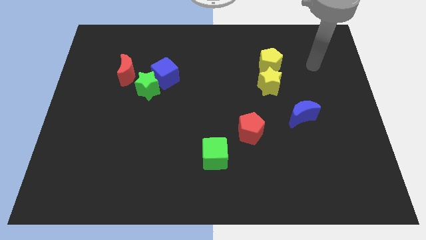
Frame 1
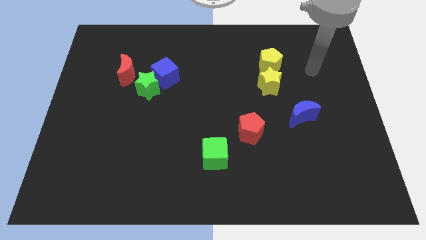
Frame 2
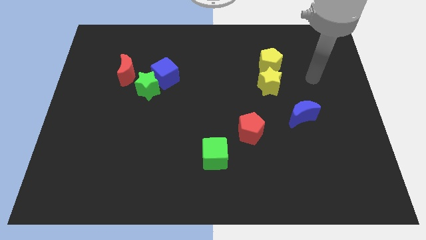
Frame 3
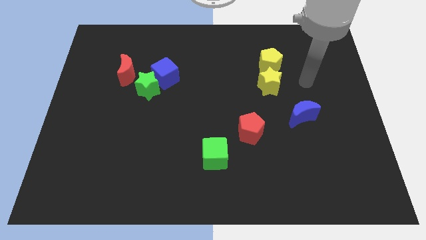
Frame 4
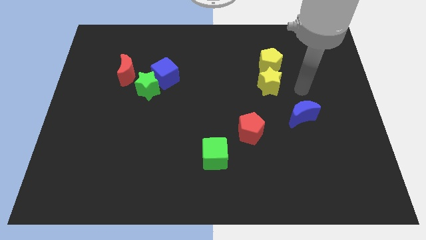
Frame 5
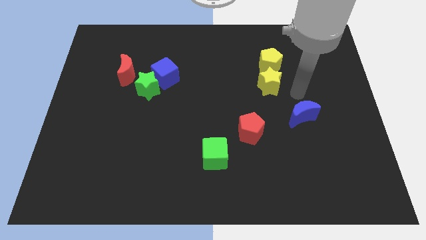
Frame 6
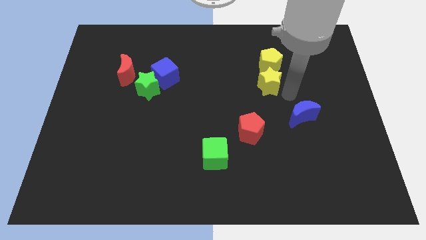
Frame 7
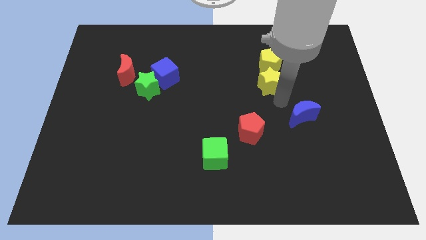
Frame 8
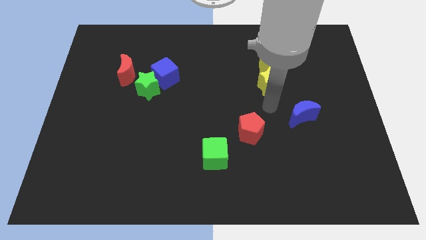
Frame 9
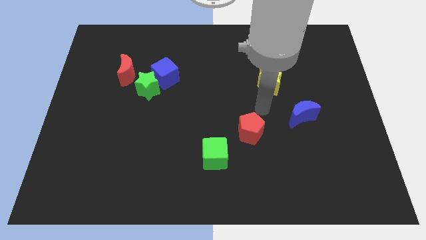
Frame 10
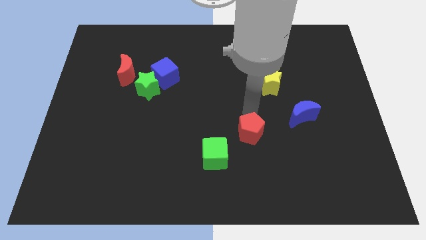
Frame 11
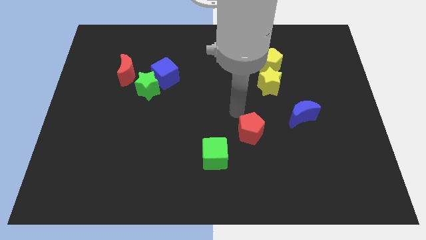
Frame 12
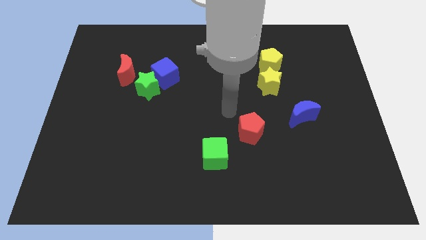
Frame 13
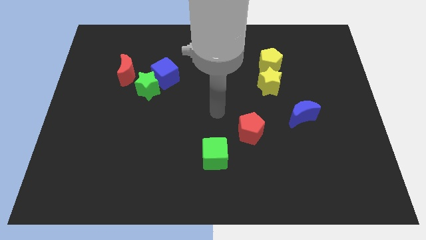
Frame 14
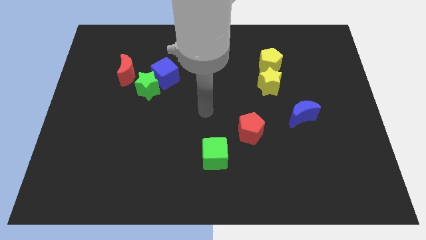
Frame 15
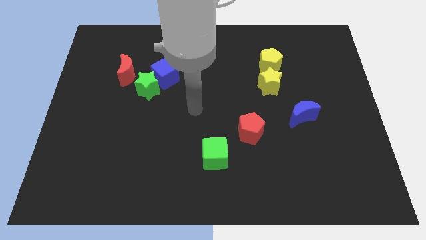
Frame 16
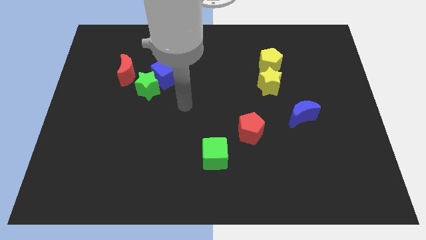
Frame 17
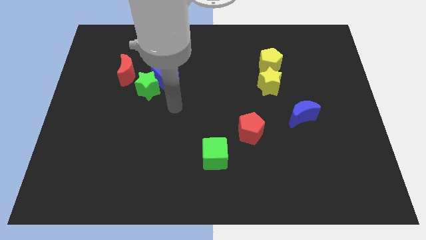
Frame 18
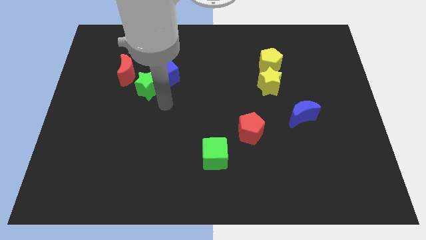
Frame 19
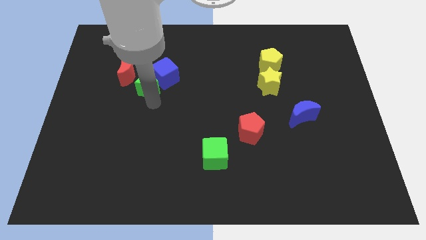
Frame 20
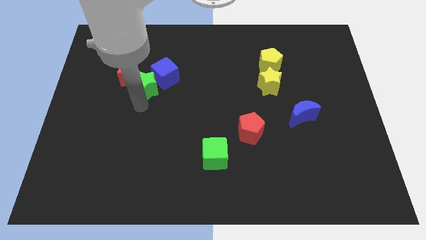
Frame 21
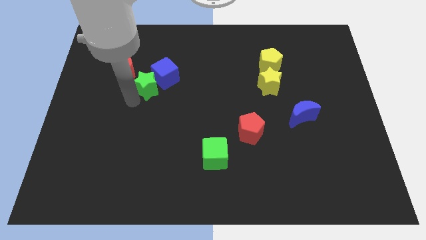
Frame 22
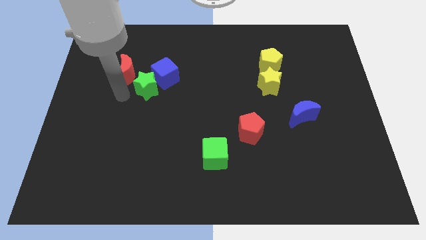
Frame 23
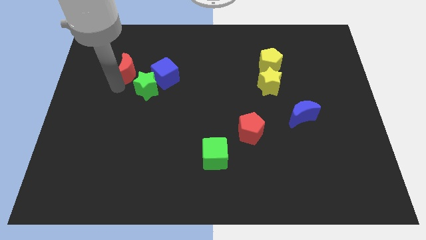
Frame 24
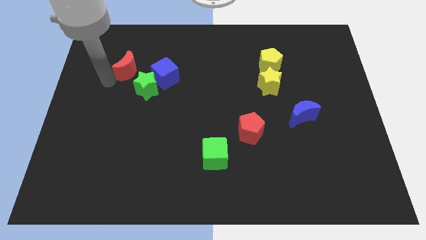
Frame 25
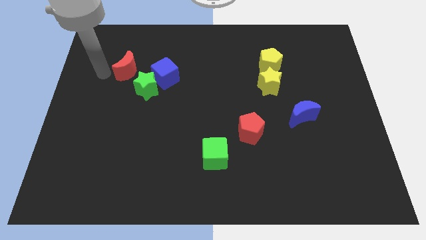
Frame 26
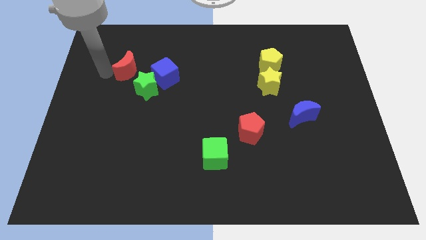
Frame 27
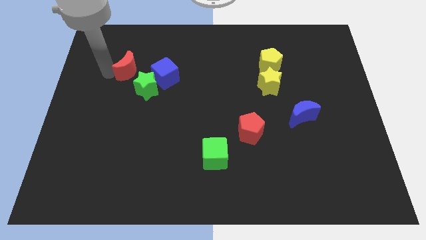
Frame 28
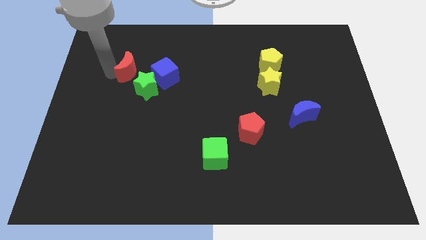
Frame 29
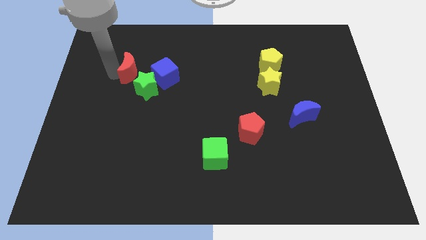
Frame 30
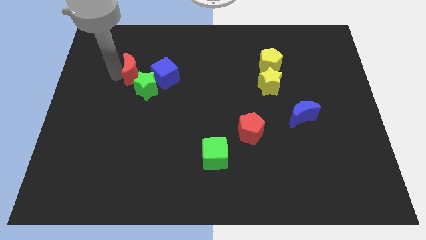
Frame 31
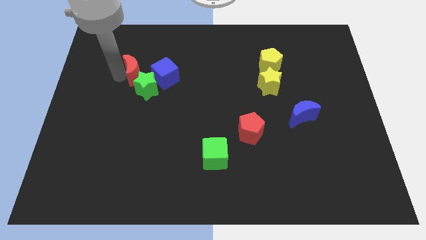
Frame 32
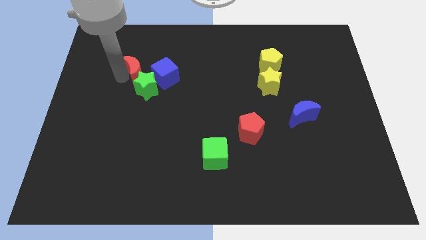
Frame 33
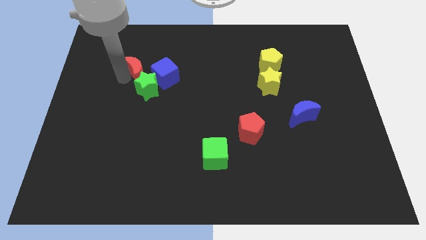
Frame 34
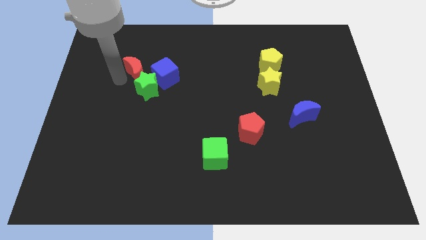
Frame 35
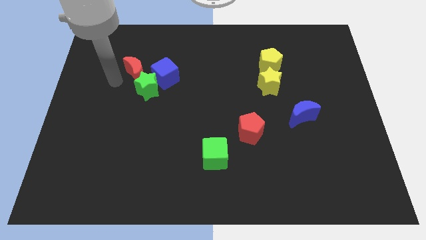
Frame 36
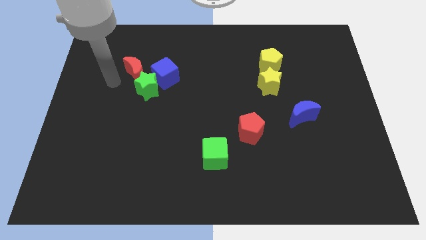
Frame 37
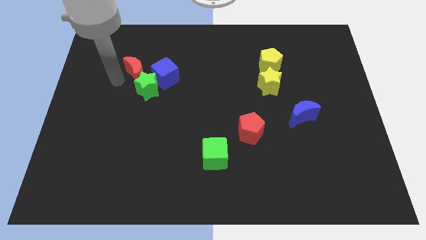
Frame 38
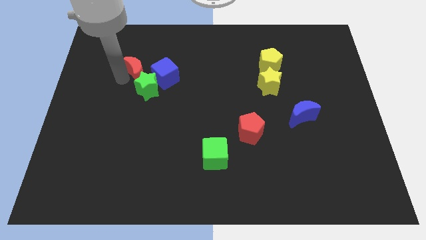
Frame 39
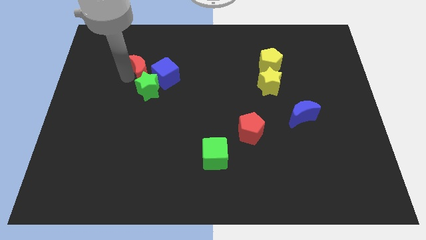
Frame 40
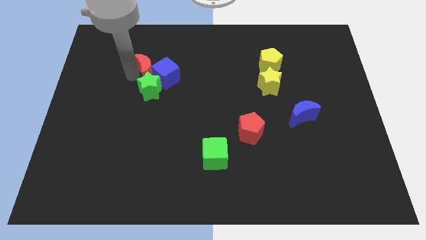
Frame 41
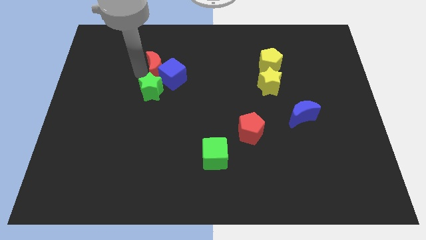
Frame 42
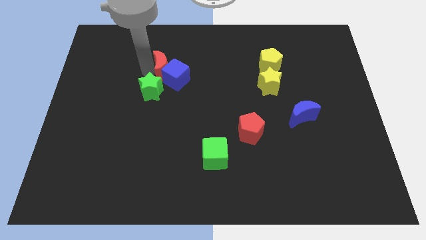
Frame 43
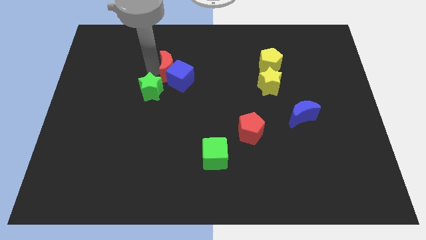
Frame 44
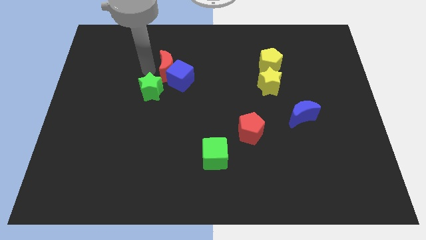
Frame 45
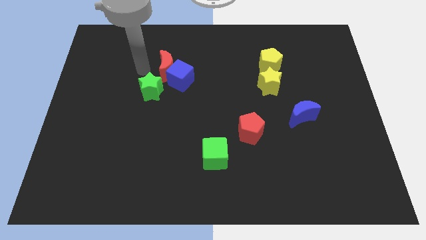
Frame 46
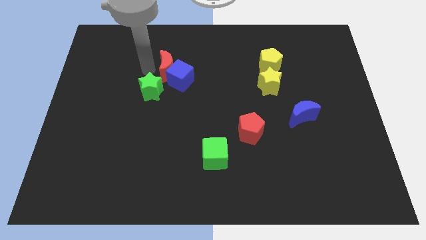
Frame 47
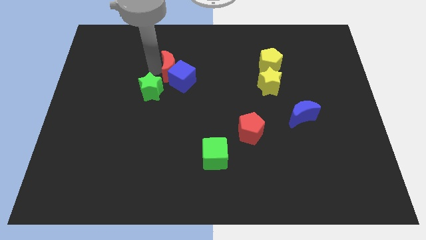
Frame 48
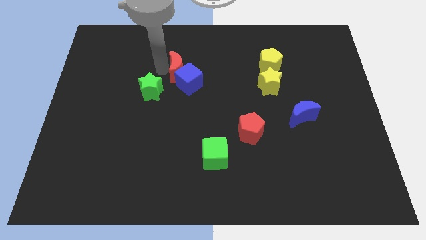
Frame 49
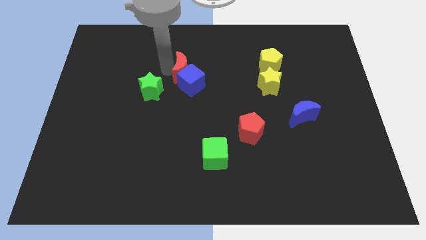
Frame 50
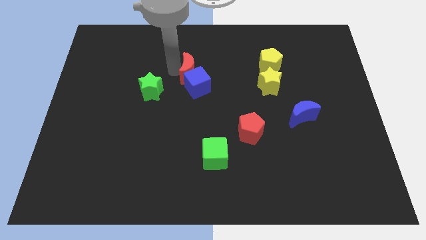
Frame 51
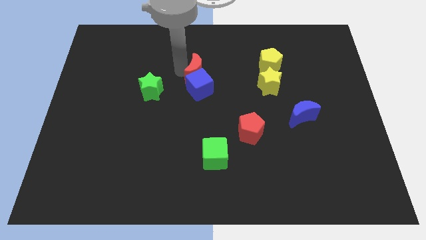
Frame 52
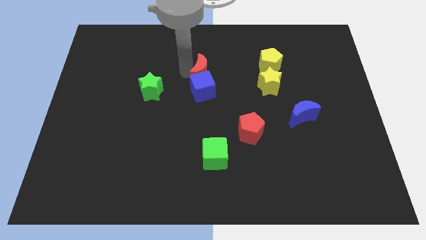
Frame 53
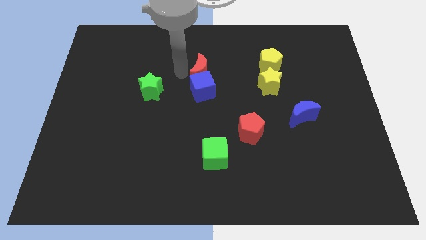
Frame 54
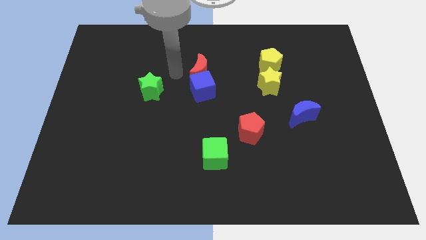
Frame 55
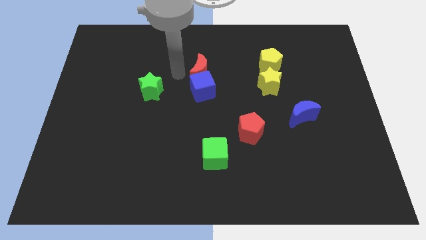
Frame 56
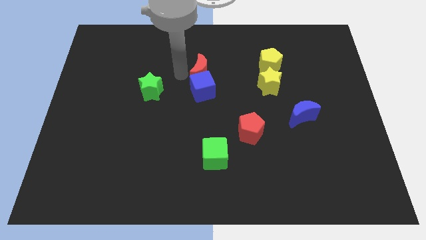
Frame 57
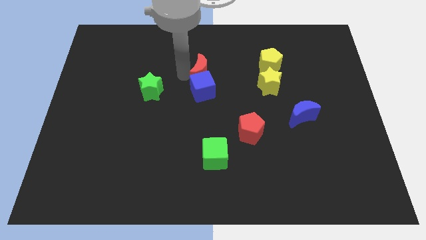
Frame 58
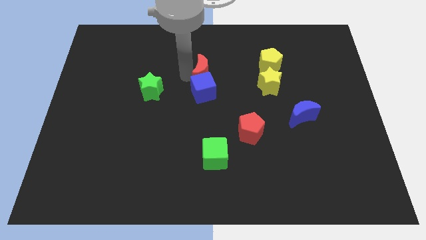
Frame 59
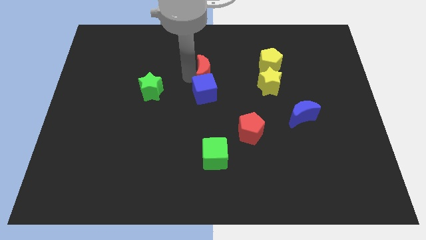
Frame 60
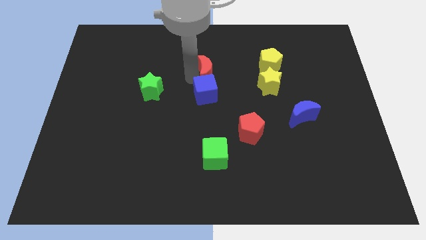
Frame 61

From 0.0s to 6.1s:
move the red moon right

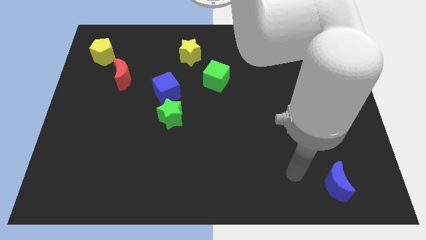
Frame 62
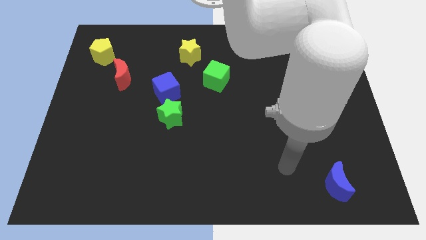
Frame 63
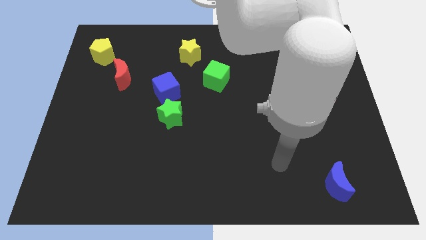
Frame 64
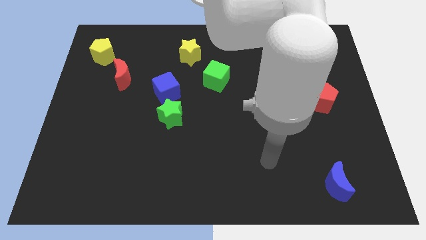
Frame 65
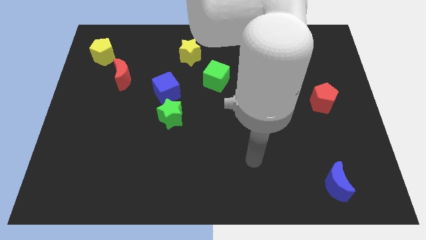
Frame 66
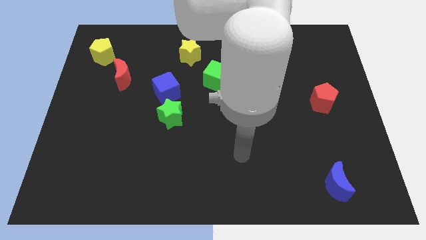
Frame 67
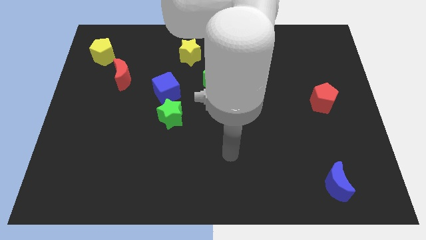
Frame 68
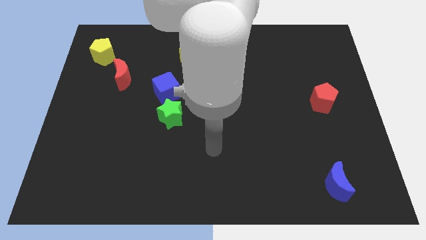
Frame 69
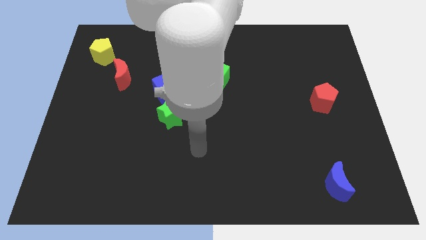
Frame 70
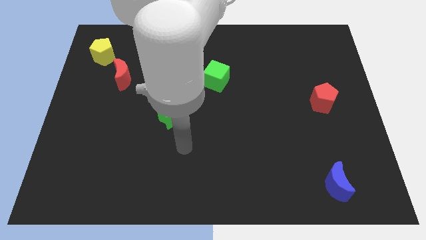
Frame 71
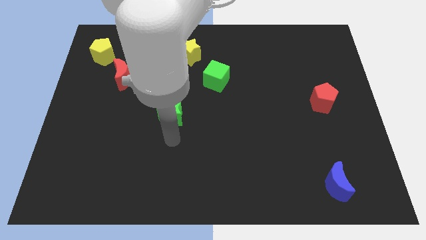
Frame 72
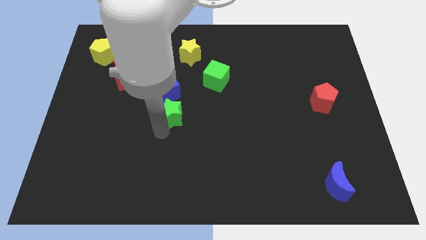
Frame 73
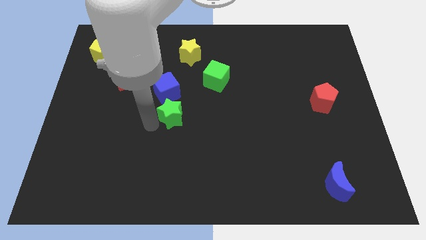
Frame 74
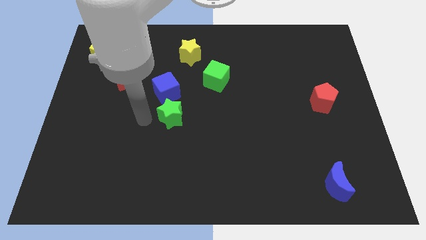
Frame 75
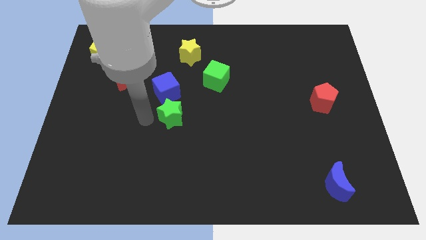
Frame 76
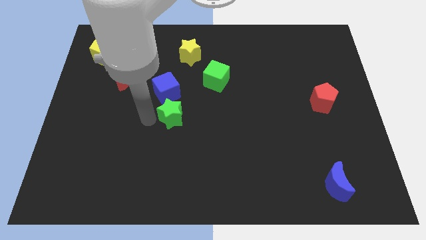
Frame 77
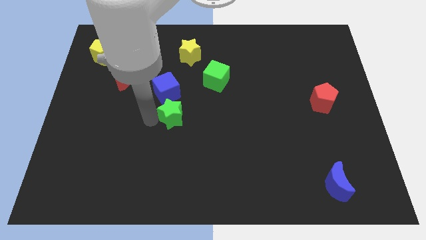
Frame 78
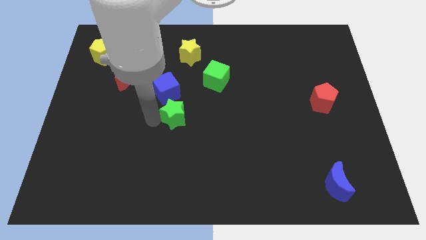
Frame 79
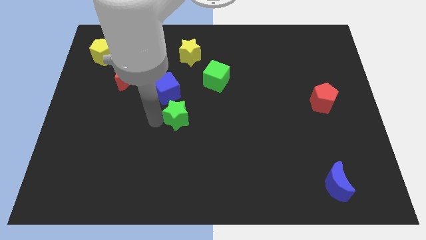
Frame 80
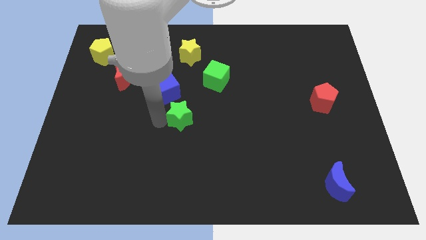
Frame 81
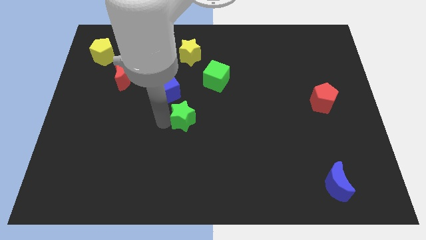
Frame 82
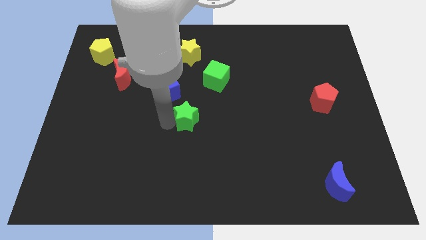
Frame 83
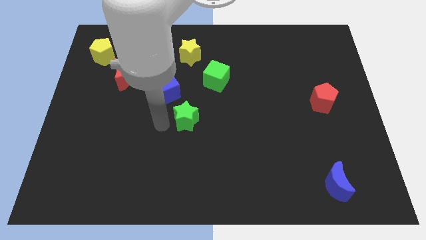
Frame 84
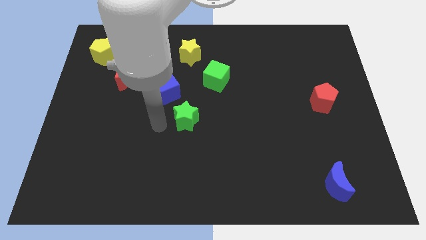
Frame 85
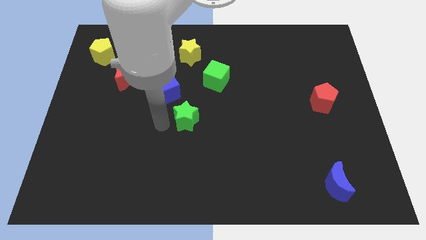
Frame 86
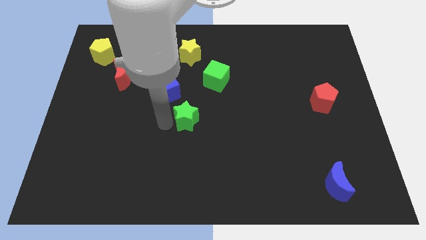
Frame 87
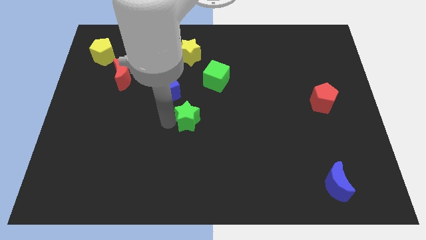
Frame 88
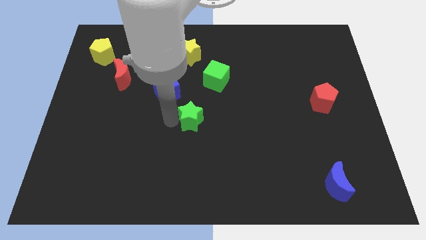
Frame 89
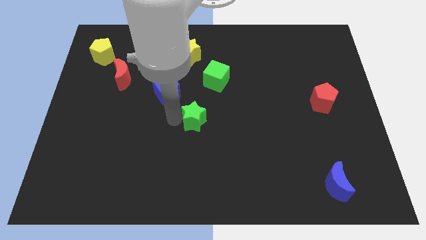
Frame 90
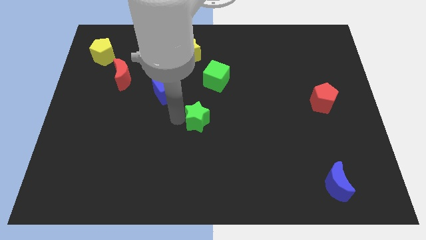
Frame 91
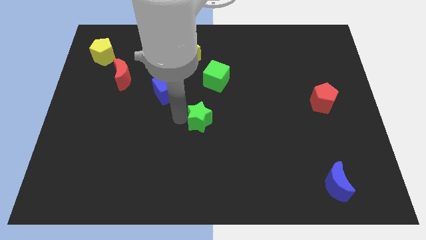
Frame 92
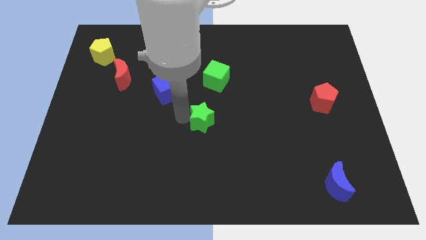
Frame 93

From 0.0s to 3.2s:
slightly move the green star right
